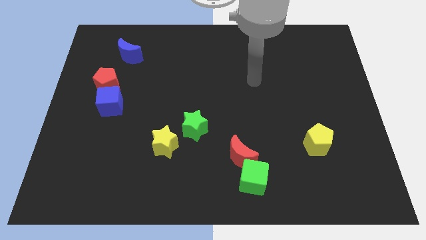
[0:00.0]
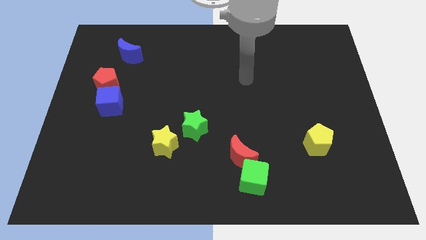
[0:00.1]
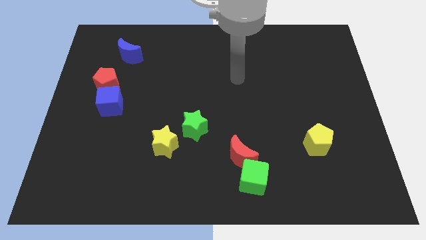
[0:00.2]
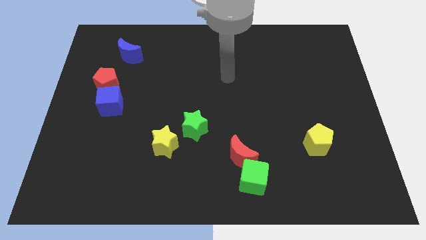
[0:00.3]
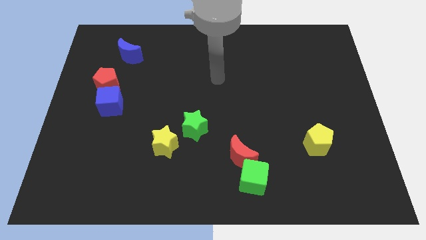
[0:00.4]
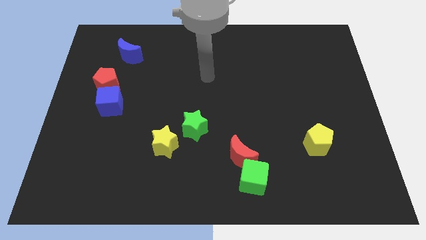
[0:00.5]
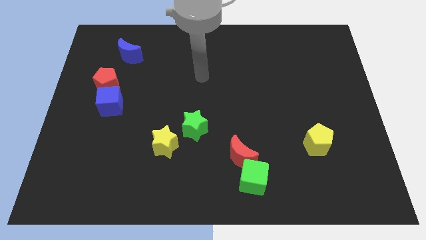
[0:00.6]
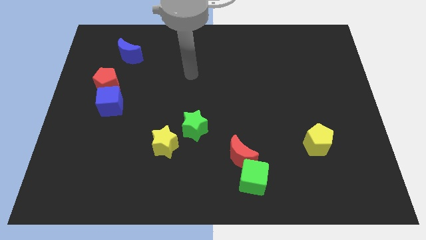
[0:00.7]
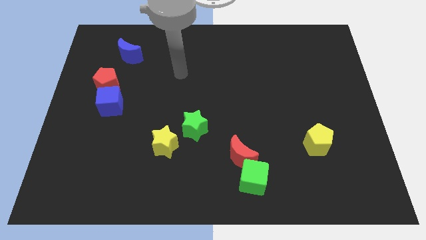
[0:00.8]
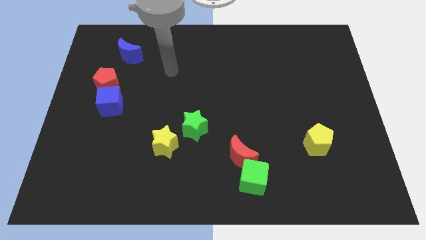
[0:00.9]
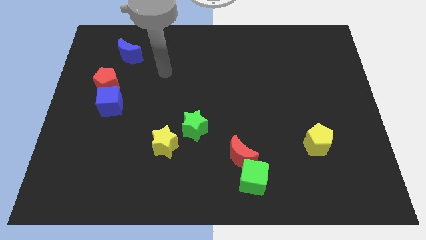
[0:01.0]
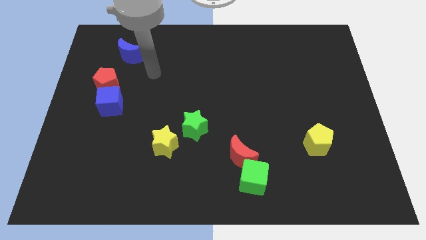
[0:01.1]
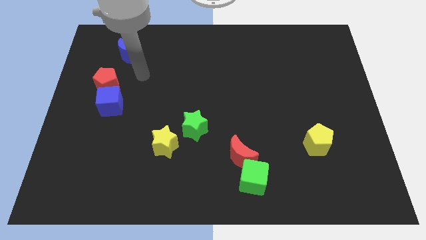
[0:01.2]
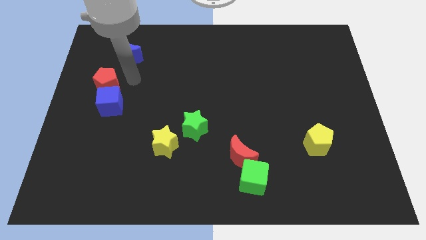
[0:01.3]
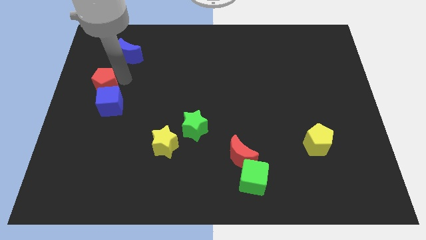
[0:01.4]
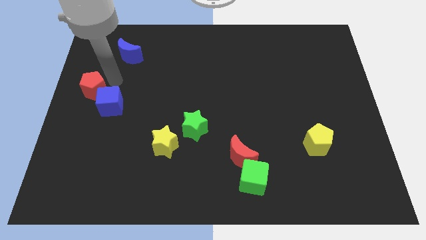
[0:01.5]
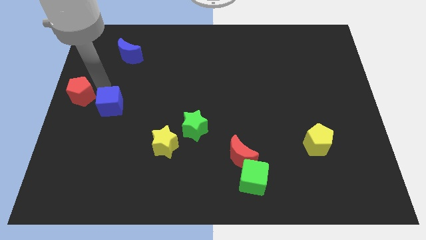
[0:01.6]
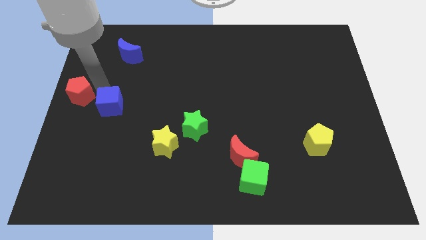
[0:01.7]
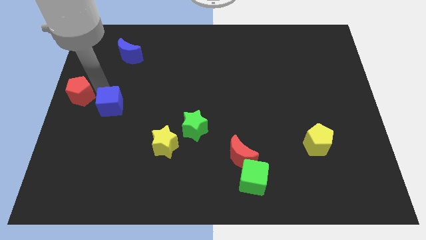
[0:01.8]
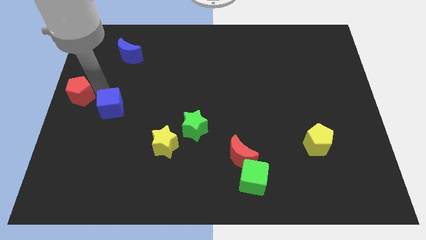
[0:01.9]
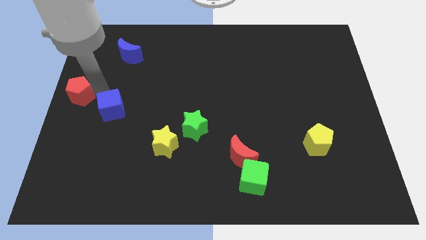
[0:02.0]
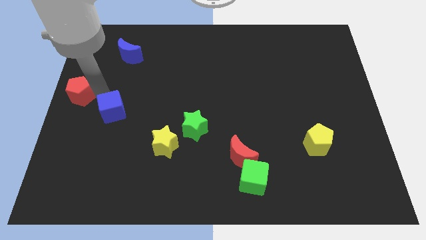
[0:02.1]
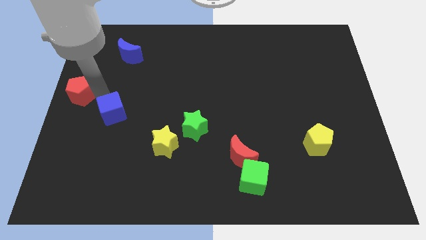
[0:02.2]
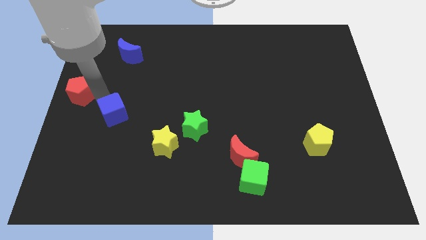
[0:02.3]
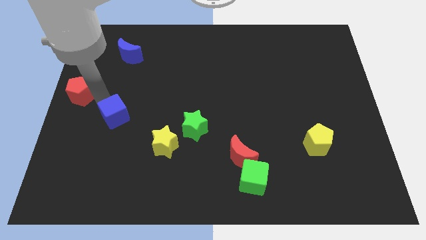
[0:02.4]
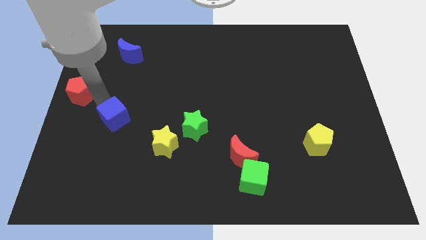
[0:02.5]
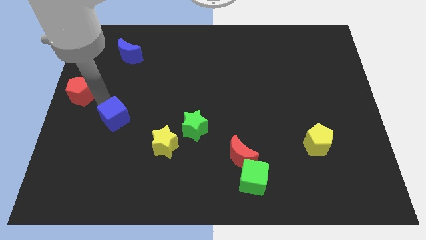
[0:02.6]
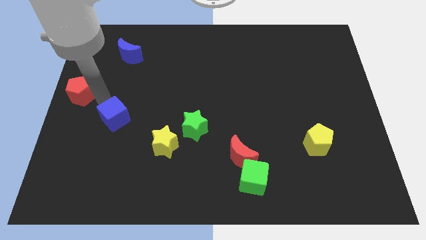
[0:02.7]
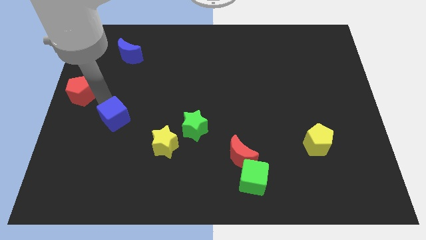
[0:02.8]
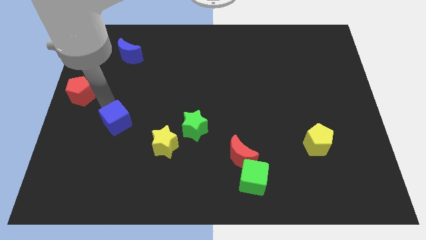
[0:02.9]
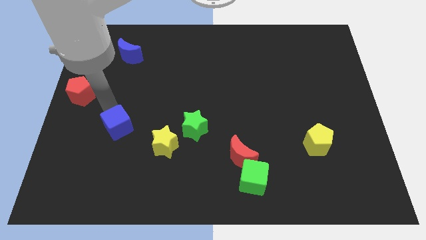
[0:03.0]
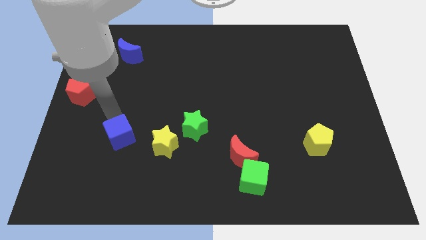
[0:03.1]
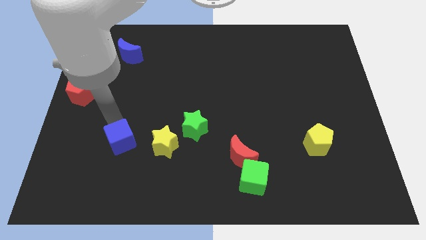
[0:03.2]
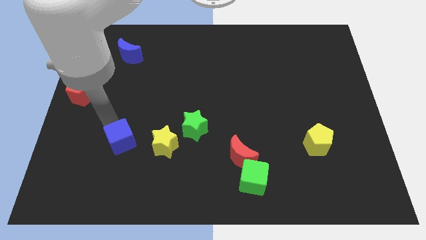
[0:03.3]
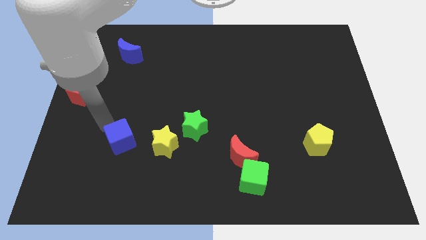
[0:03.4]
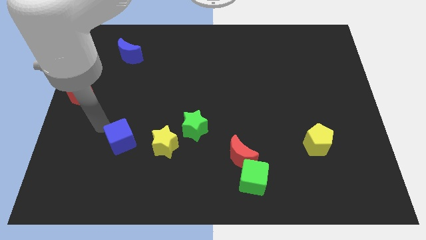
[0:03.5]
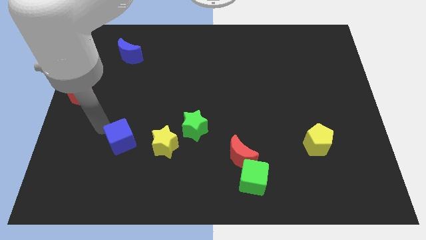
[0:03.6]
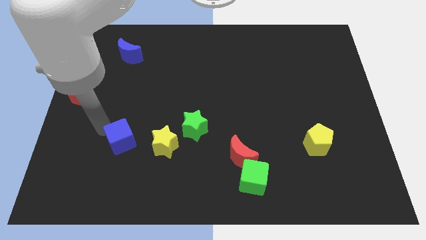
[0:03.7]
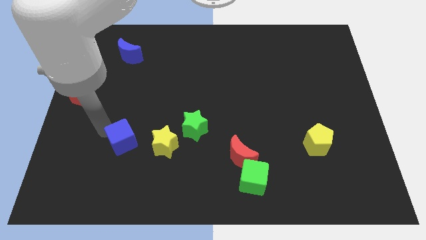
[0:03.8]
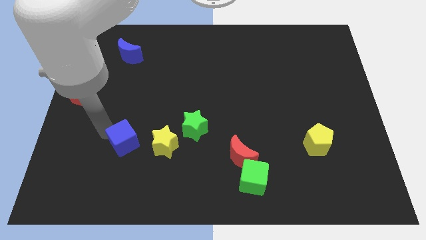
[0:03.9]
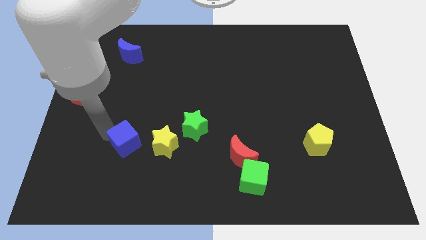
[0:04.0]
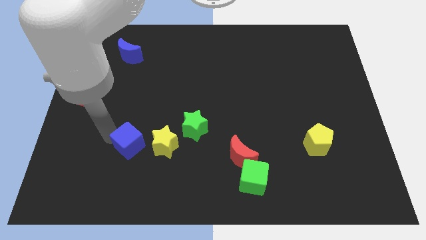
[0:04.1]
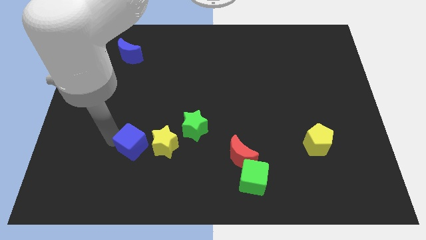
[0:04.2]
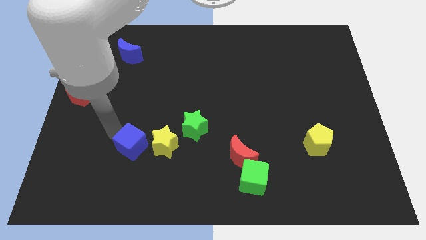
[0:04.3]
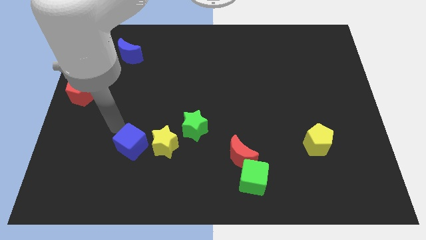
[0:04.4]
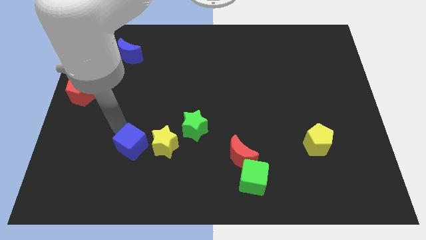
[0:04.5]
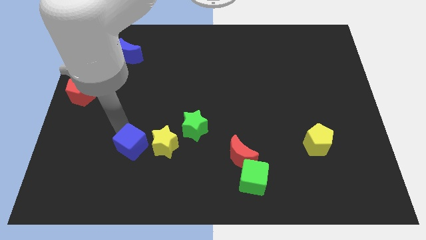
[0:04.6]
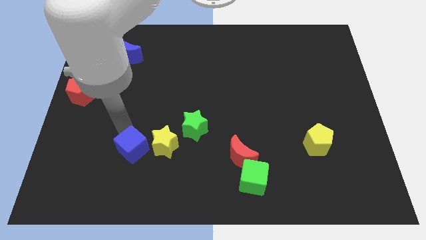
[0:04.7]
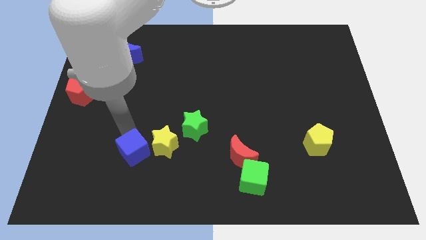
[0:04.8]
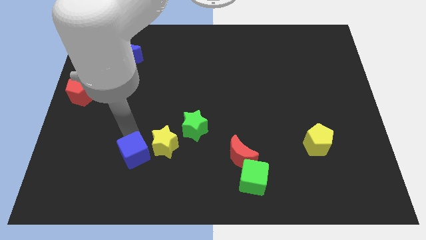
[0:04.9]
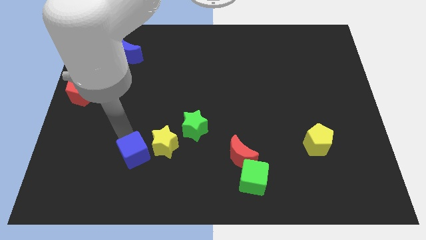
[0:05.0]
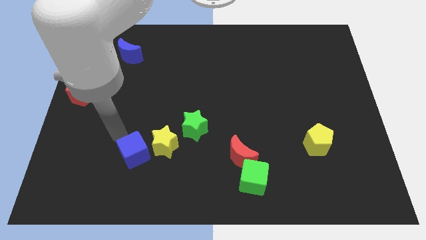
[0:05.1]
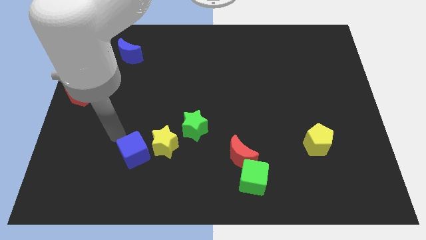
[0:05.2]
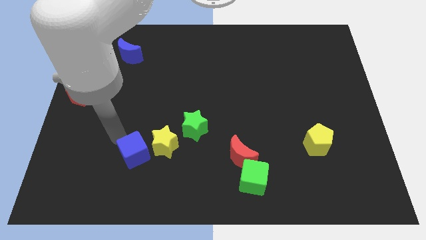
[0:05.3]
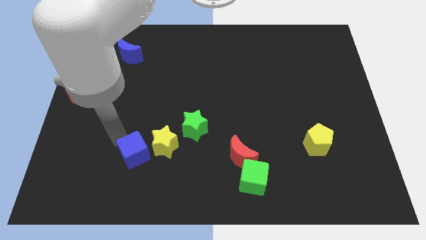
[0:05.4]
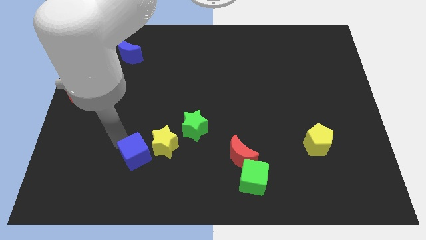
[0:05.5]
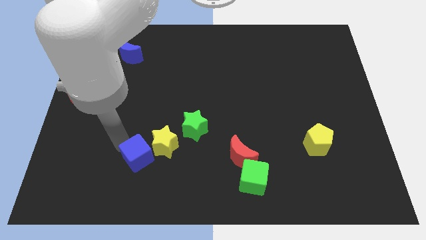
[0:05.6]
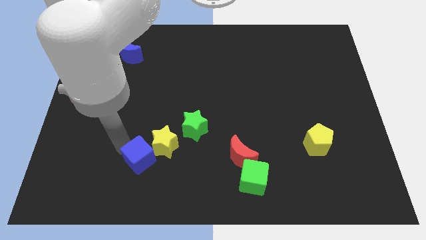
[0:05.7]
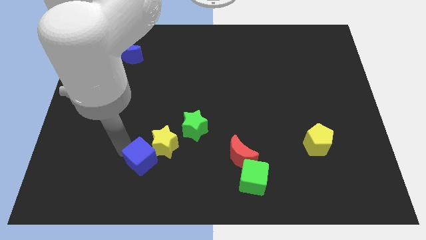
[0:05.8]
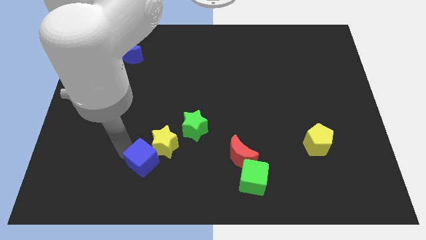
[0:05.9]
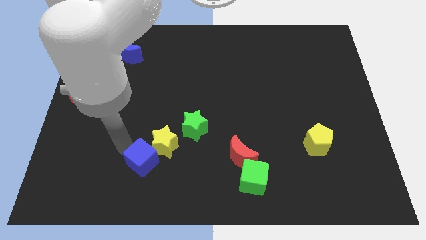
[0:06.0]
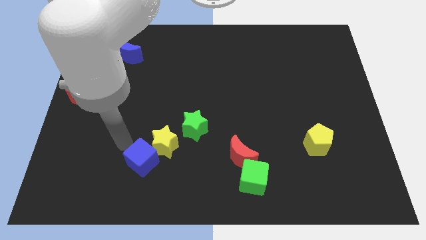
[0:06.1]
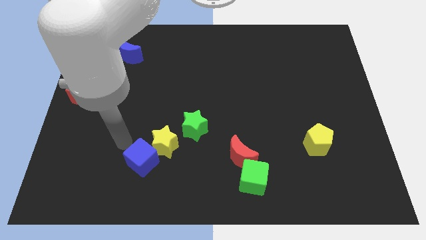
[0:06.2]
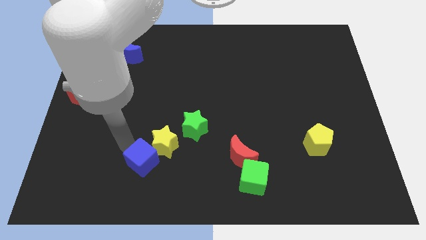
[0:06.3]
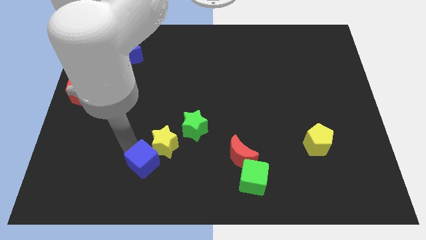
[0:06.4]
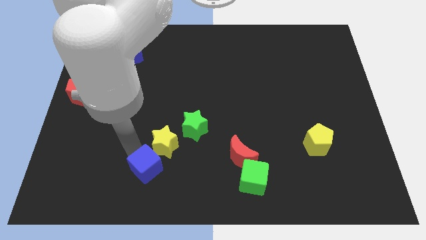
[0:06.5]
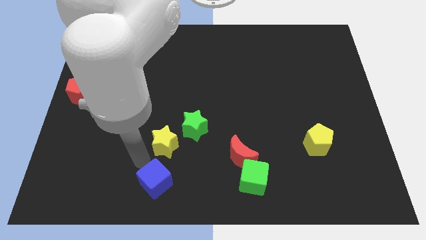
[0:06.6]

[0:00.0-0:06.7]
put the blue cube to the bottom side
